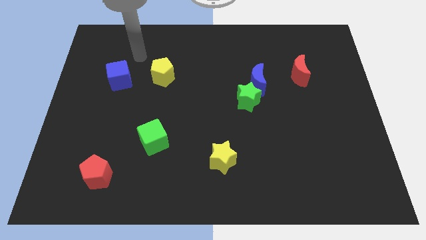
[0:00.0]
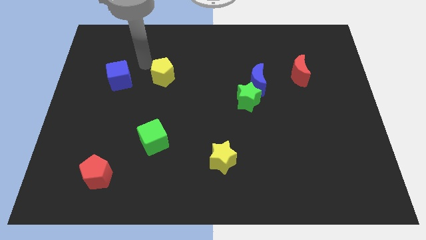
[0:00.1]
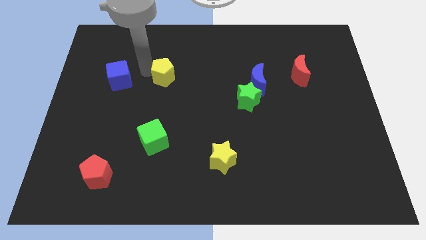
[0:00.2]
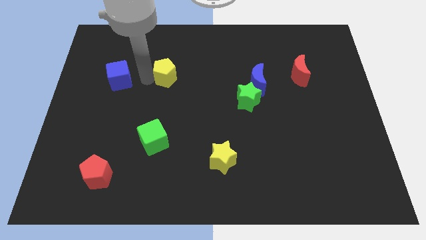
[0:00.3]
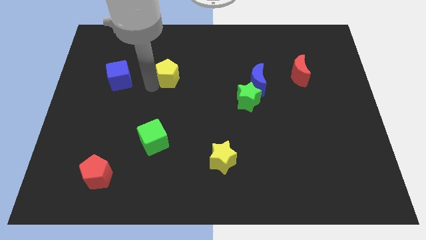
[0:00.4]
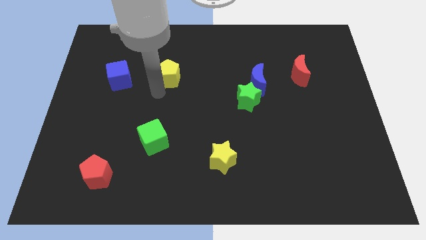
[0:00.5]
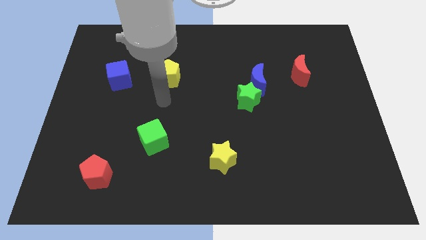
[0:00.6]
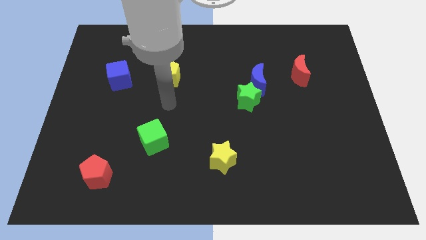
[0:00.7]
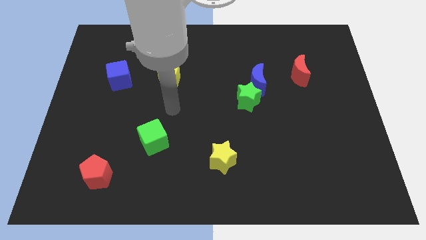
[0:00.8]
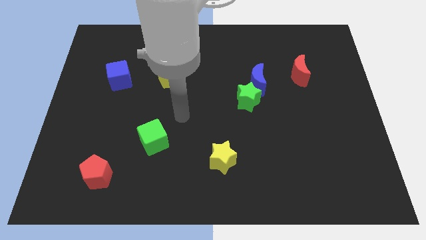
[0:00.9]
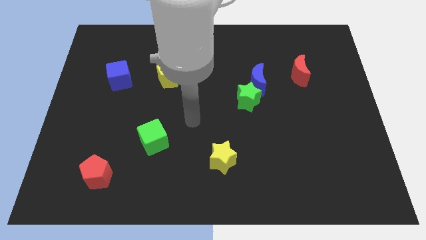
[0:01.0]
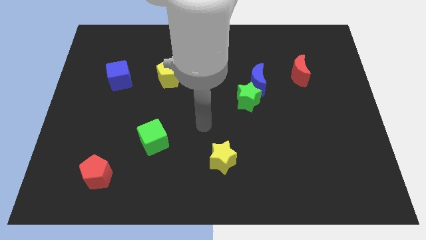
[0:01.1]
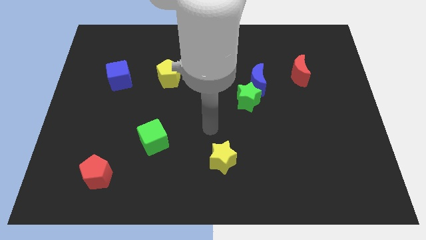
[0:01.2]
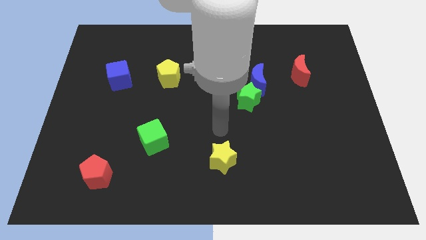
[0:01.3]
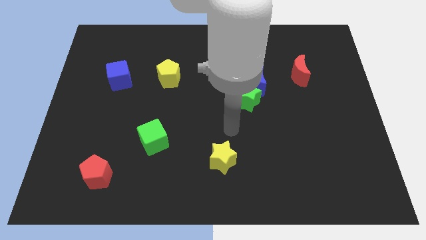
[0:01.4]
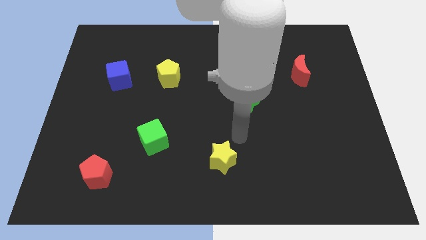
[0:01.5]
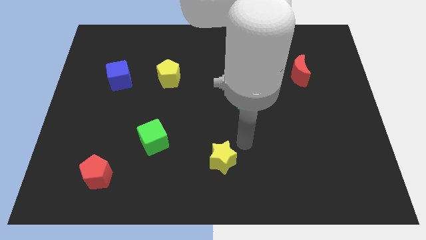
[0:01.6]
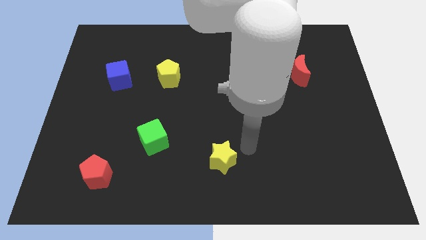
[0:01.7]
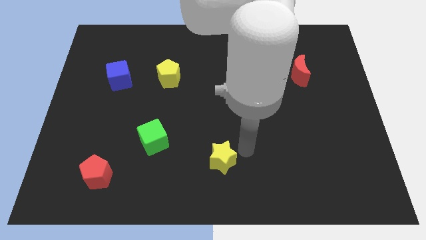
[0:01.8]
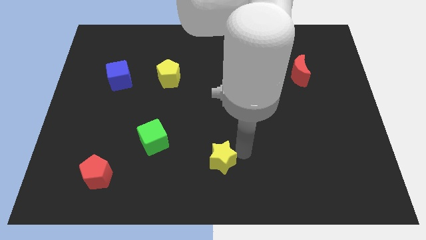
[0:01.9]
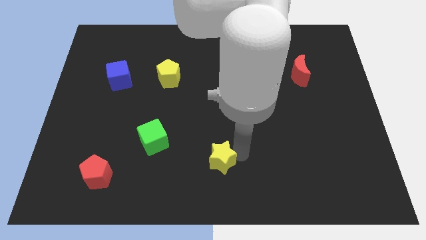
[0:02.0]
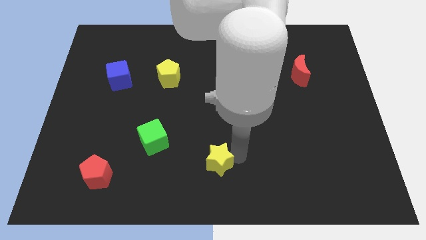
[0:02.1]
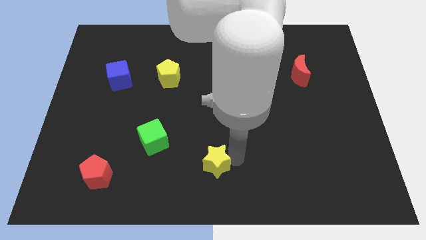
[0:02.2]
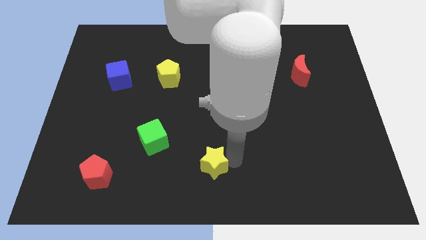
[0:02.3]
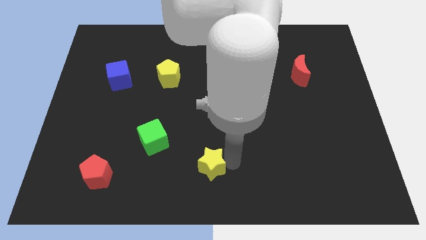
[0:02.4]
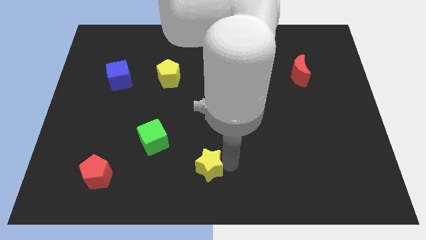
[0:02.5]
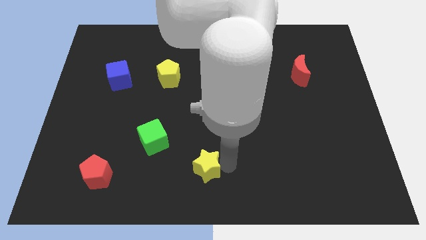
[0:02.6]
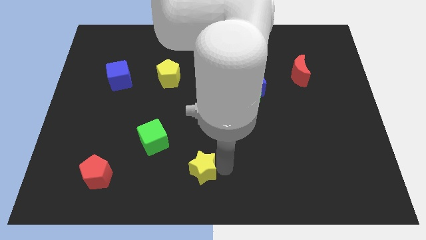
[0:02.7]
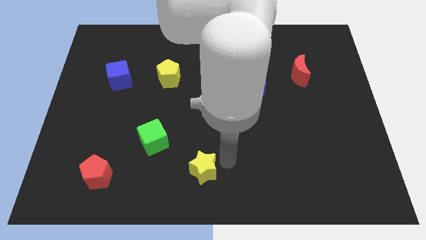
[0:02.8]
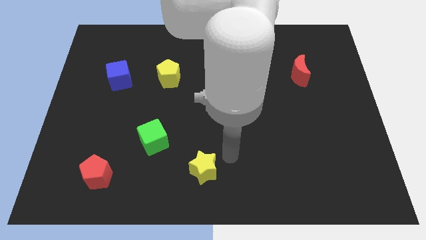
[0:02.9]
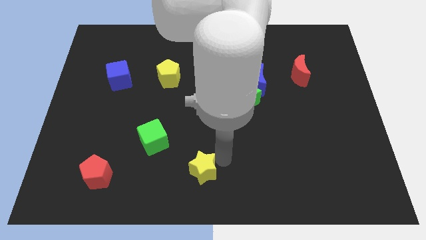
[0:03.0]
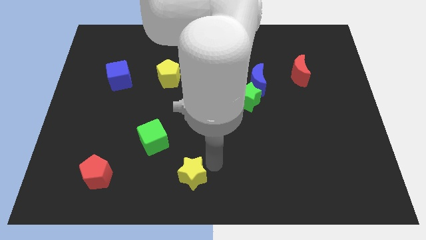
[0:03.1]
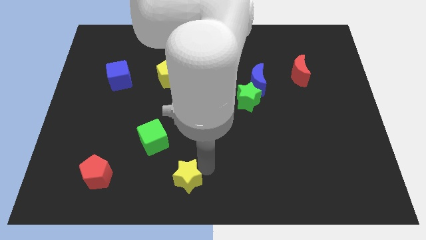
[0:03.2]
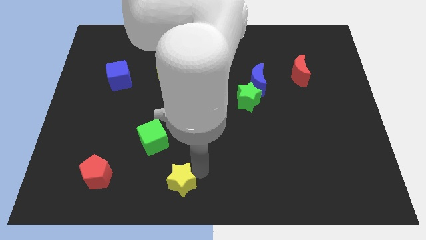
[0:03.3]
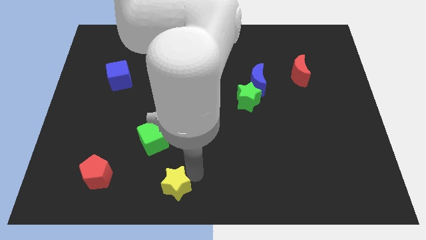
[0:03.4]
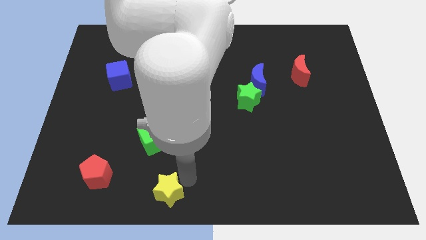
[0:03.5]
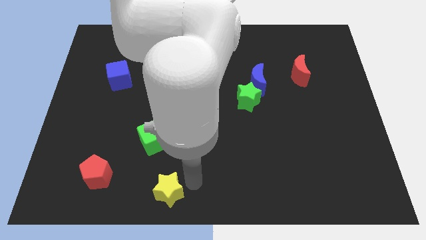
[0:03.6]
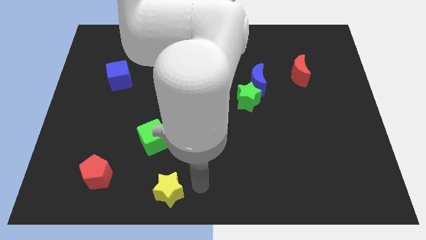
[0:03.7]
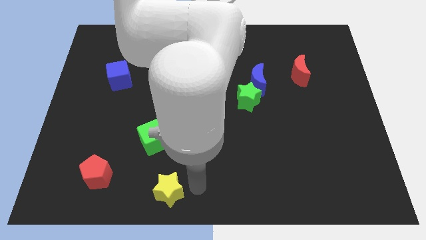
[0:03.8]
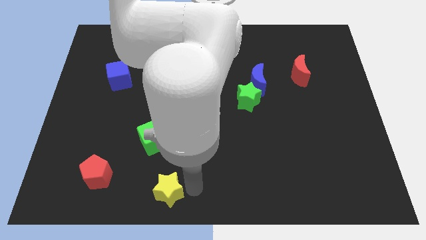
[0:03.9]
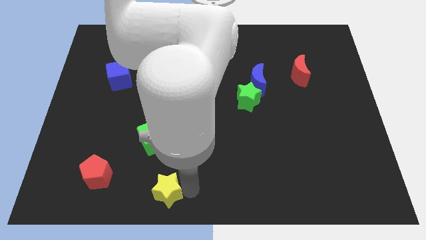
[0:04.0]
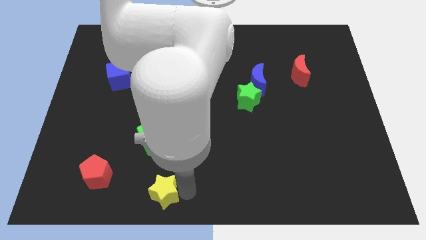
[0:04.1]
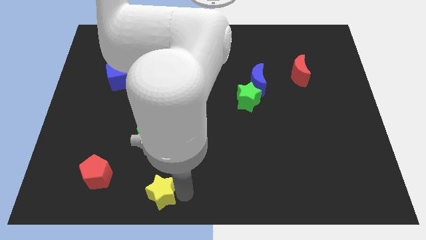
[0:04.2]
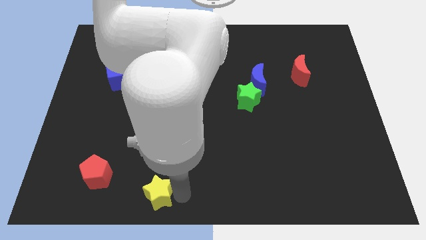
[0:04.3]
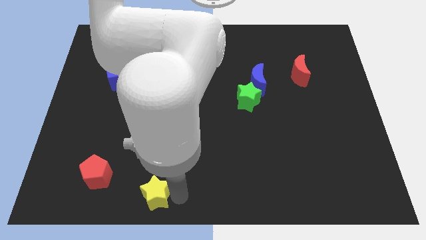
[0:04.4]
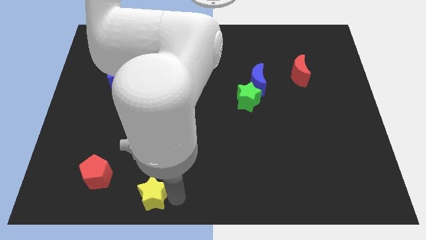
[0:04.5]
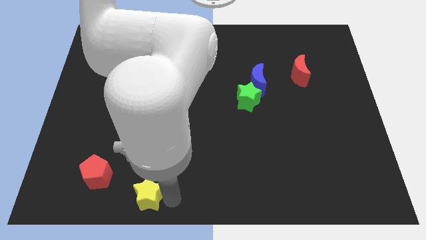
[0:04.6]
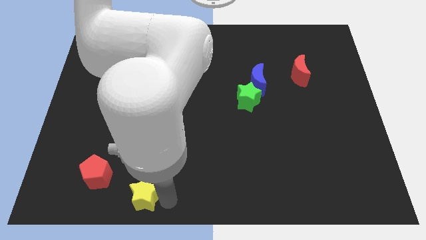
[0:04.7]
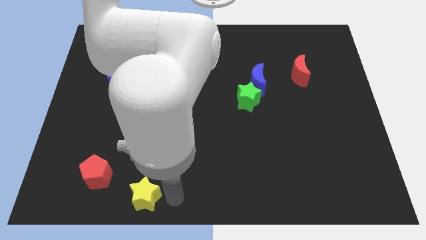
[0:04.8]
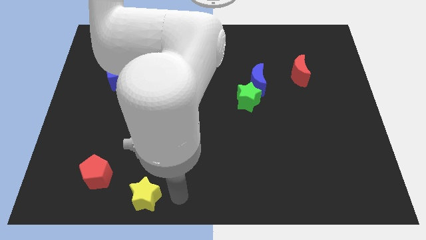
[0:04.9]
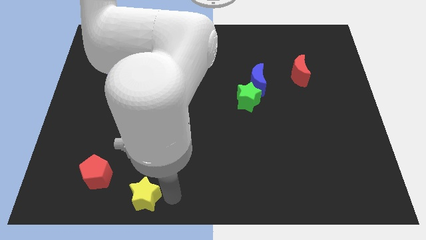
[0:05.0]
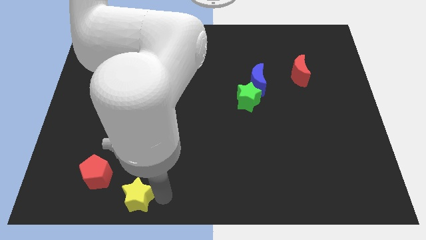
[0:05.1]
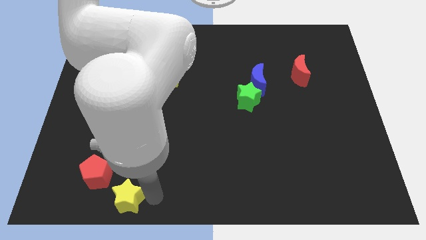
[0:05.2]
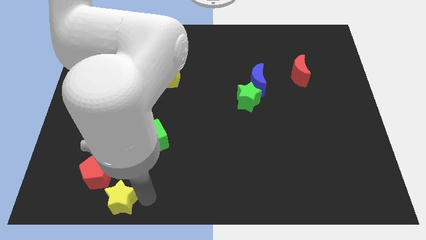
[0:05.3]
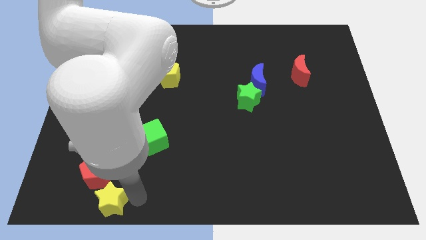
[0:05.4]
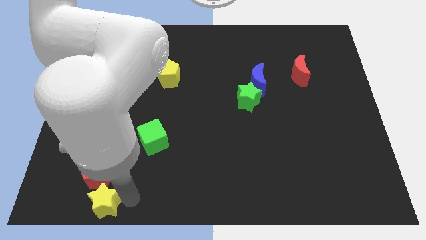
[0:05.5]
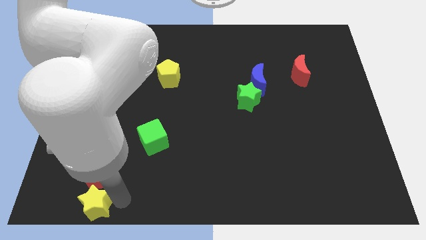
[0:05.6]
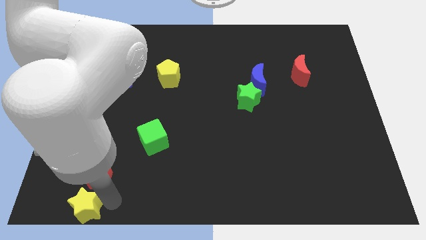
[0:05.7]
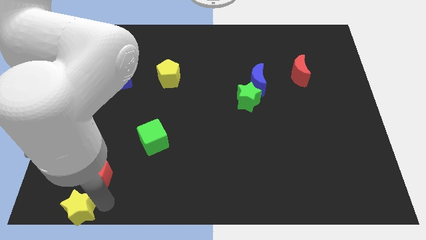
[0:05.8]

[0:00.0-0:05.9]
push the yellow star to the lower left corner
